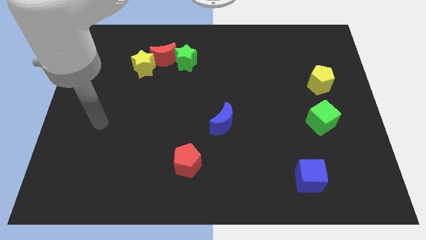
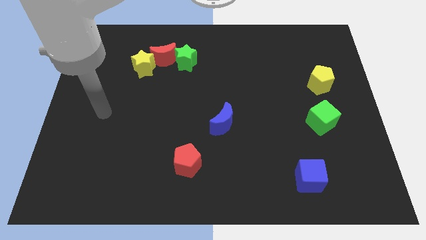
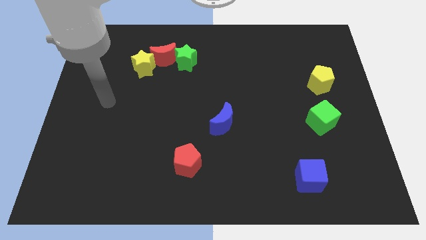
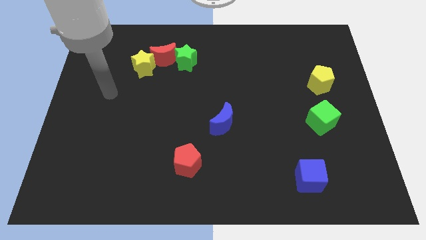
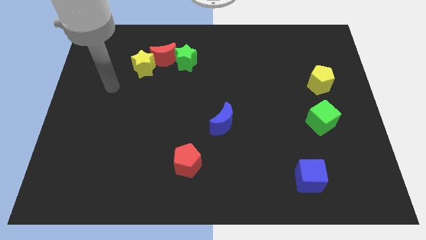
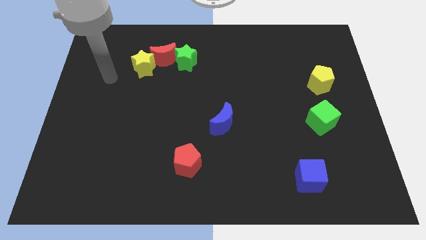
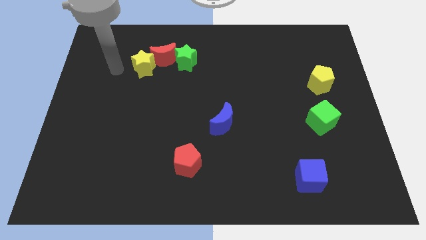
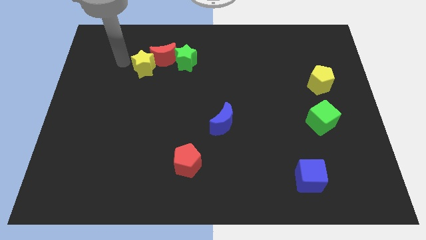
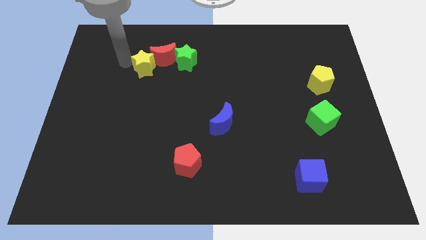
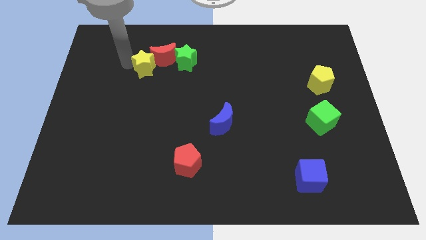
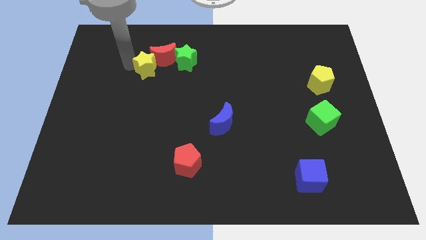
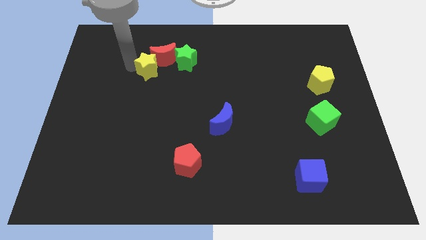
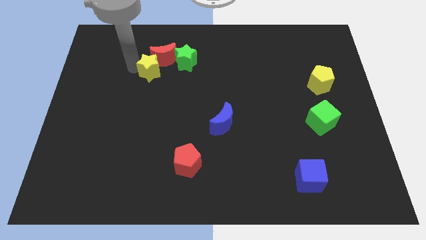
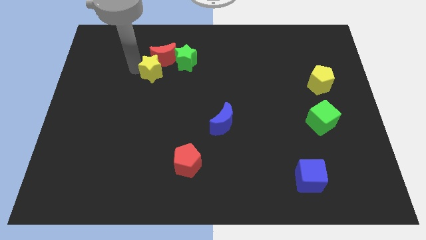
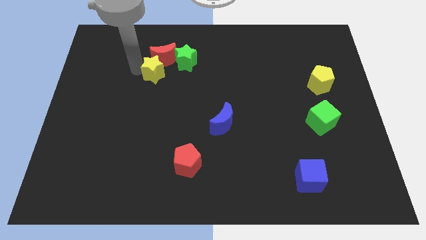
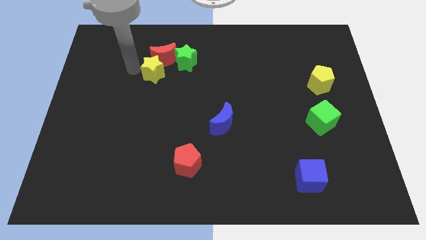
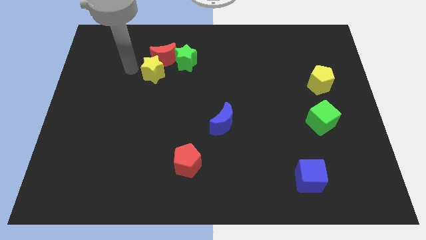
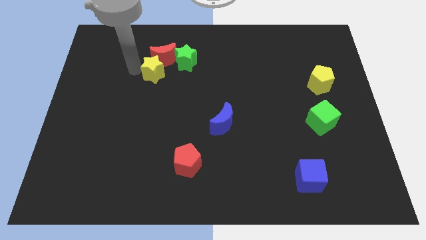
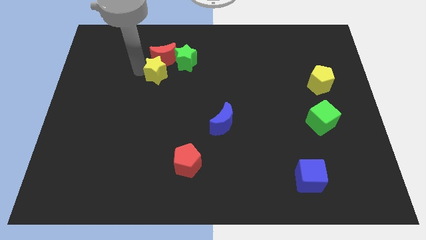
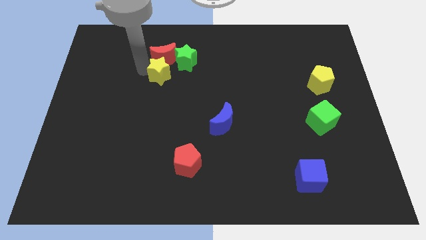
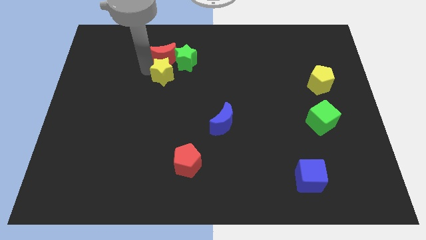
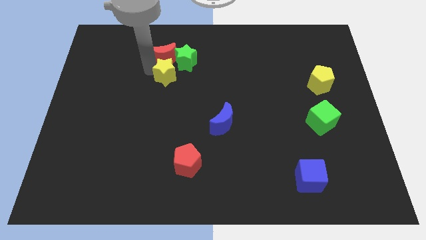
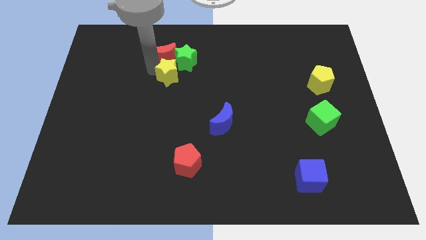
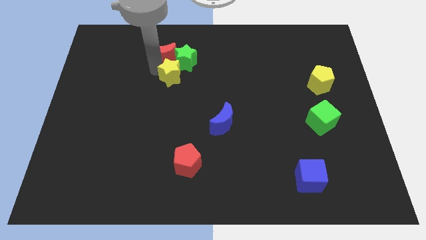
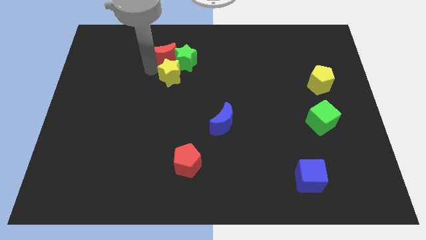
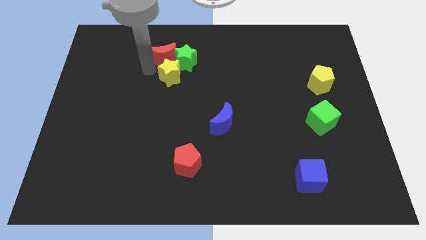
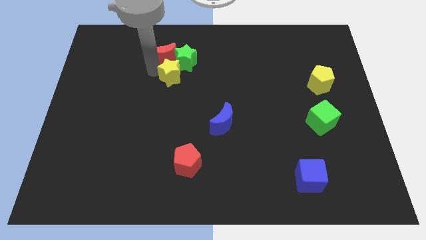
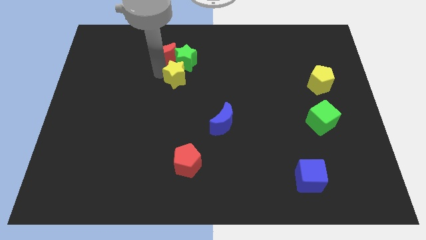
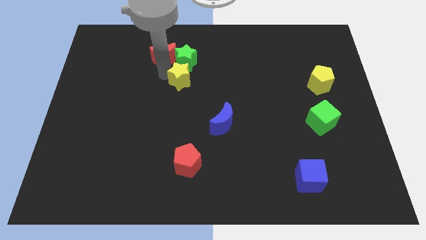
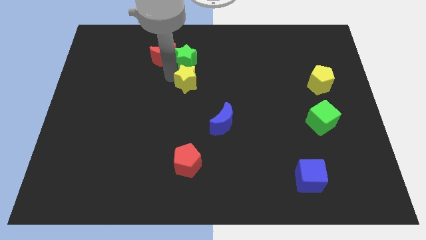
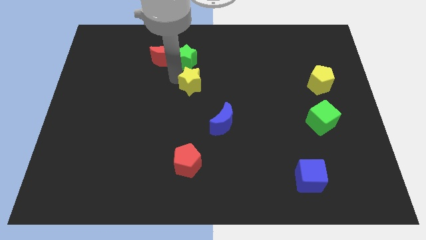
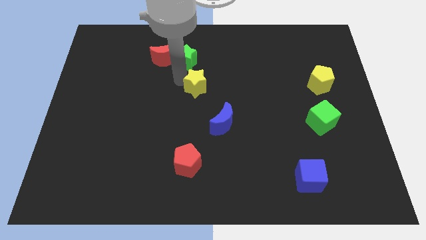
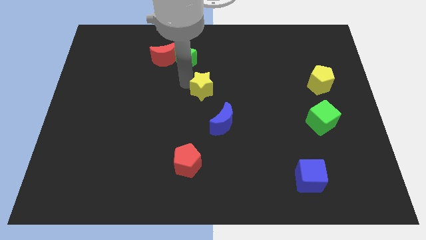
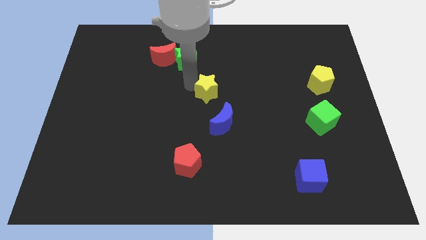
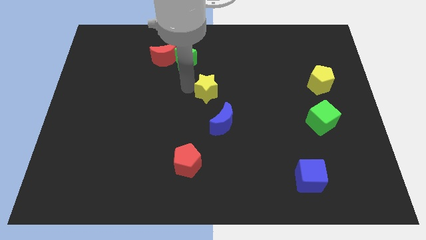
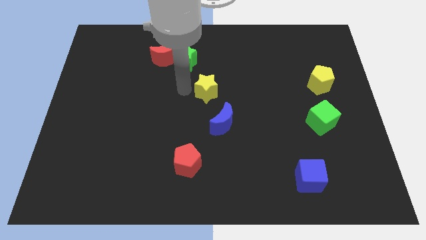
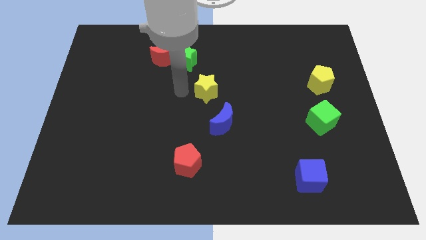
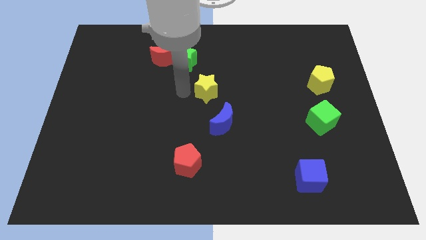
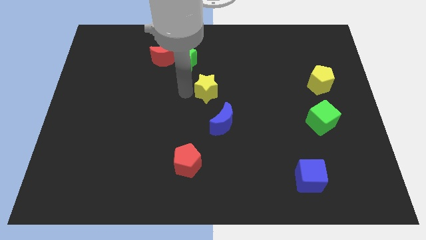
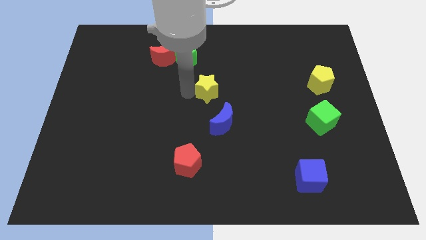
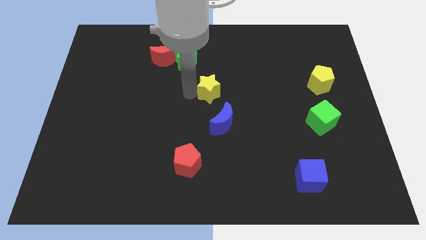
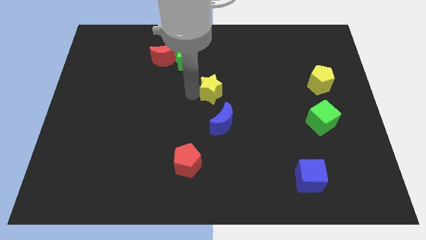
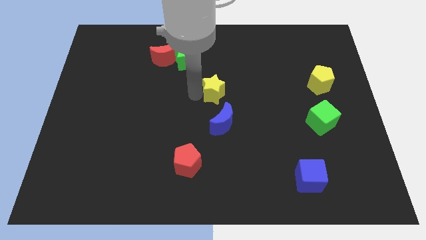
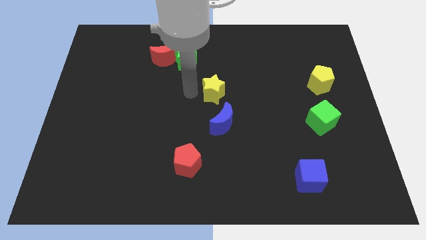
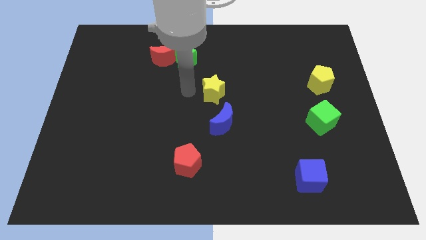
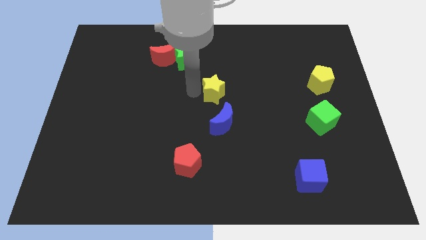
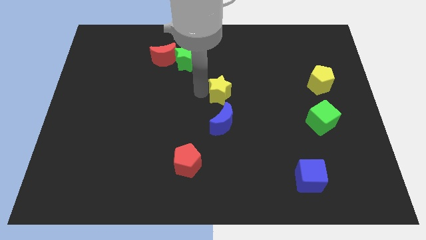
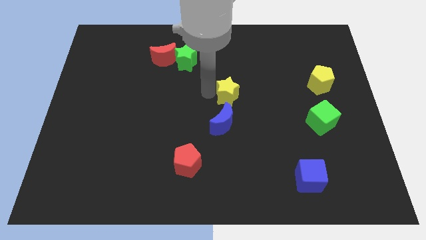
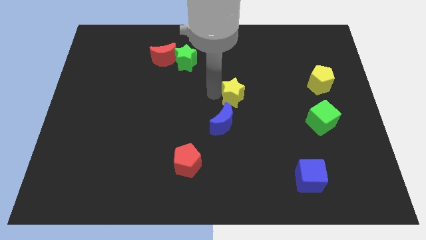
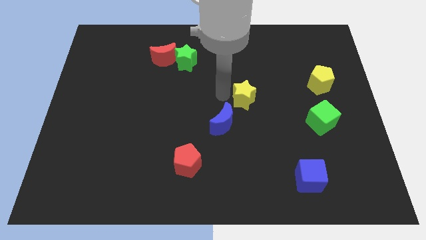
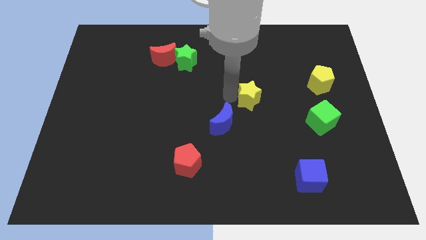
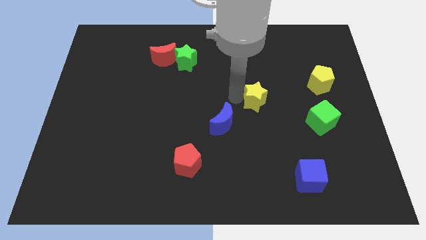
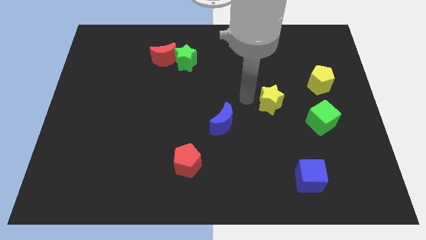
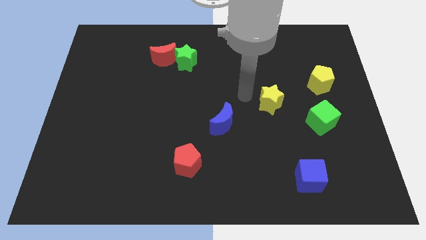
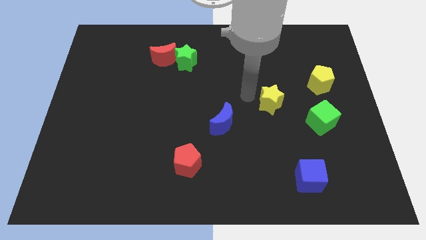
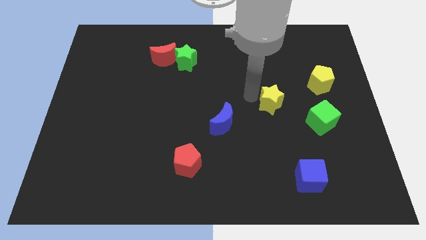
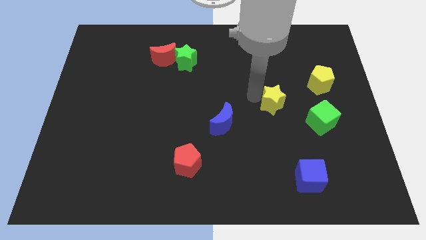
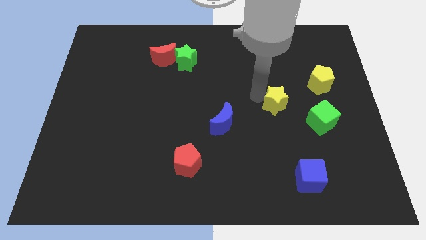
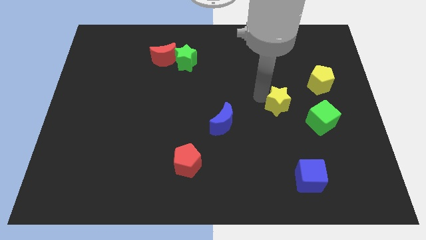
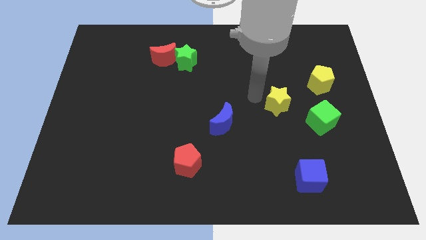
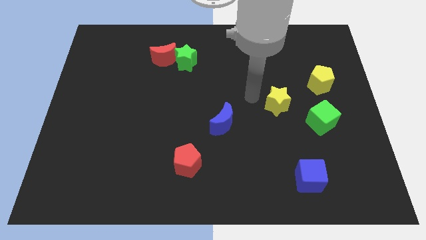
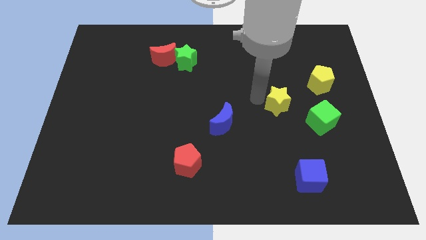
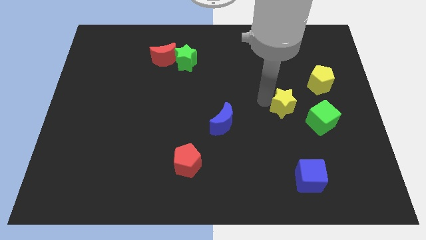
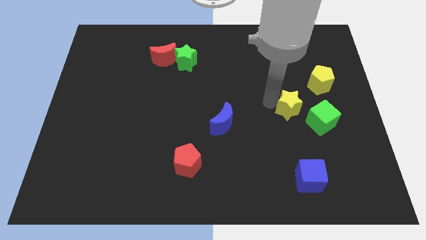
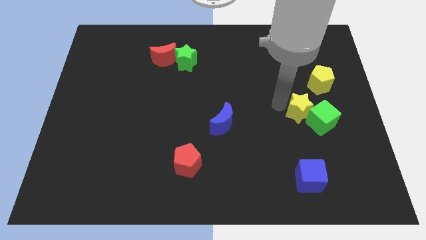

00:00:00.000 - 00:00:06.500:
put the yellow star close to the green cube
